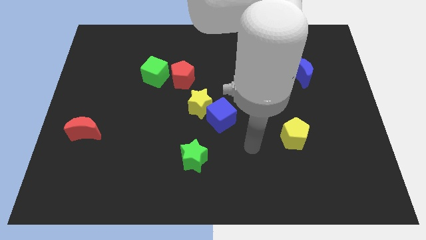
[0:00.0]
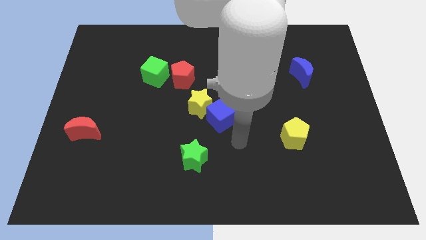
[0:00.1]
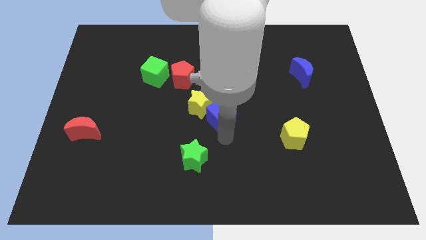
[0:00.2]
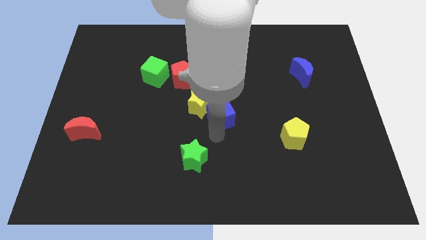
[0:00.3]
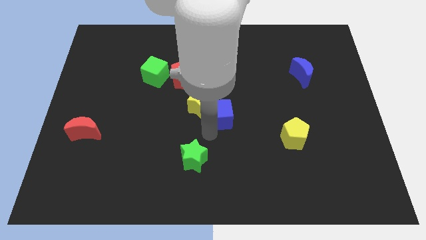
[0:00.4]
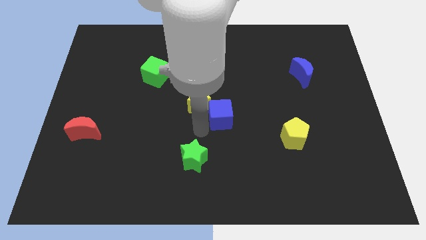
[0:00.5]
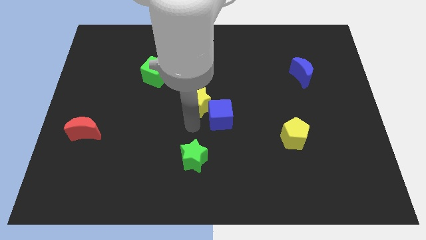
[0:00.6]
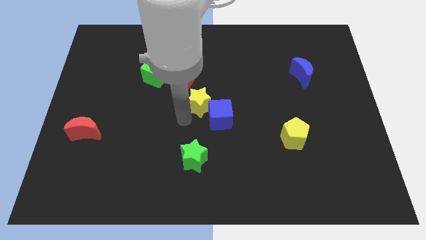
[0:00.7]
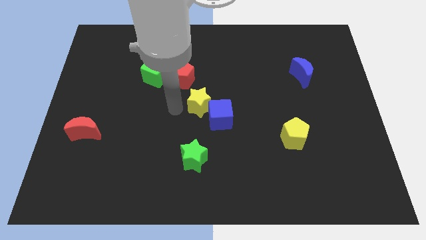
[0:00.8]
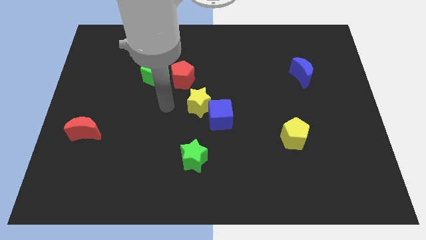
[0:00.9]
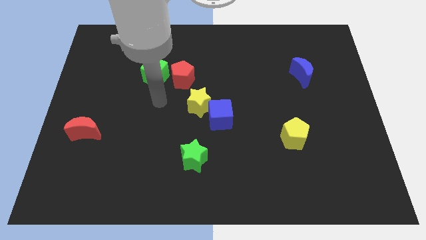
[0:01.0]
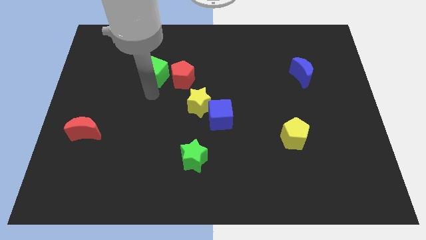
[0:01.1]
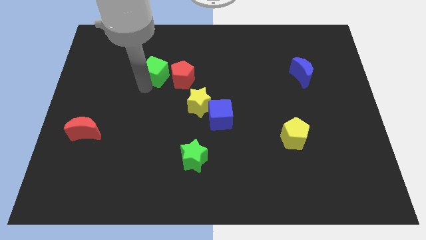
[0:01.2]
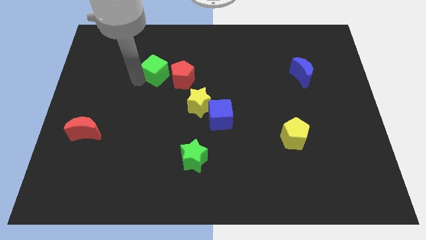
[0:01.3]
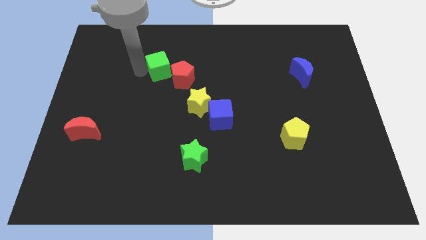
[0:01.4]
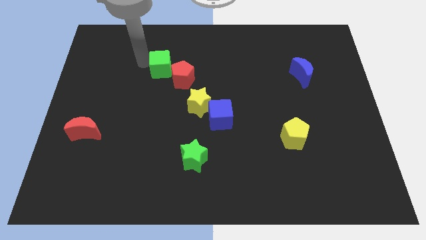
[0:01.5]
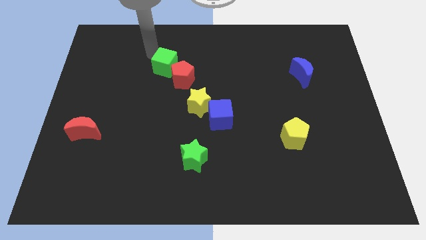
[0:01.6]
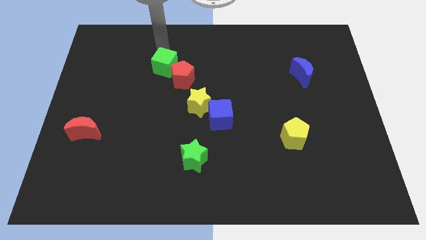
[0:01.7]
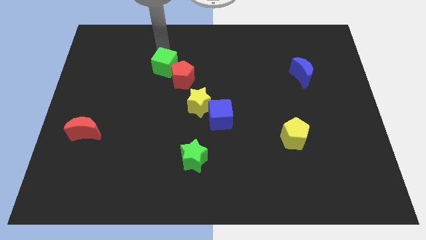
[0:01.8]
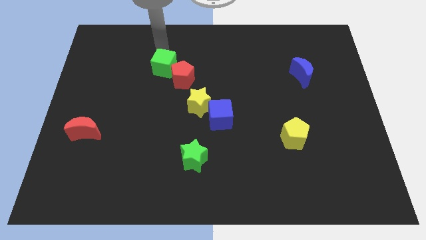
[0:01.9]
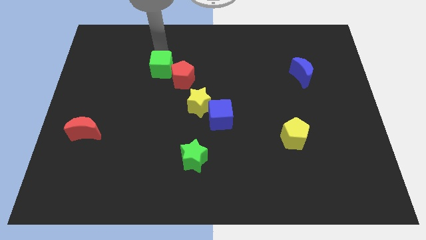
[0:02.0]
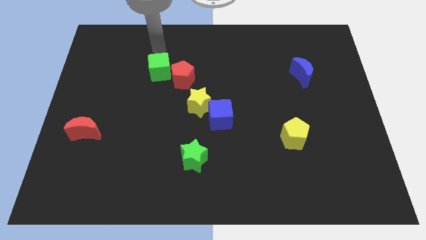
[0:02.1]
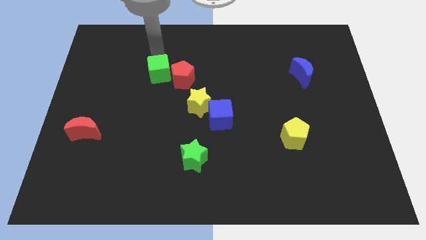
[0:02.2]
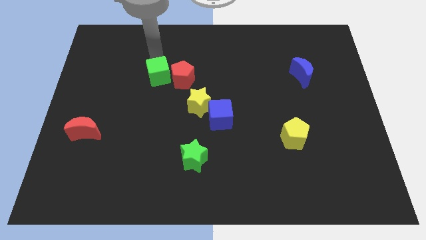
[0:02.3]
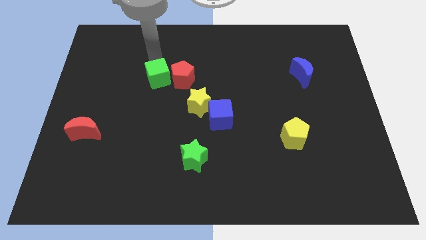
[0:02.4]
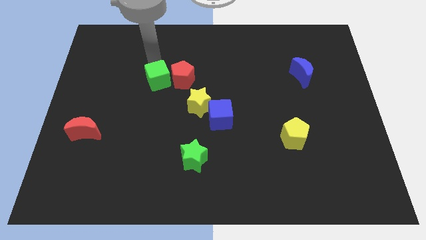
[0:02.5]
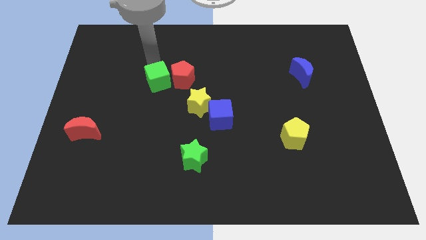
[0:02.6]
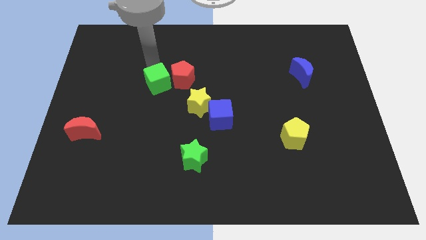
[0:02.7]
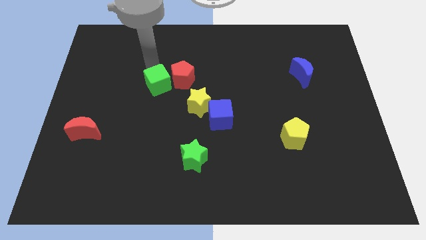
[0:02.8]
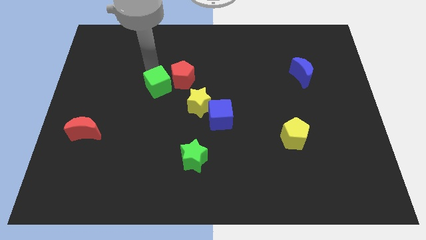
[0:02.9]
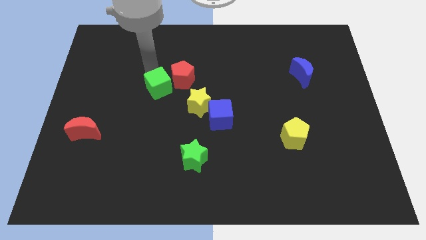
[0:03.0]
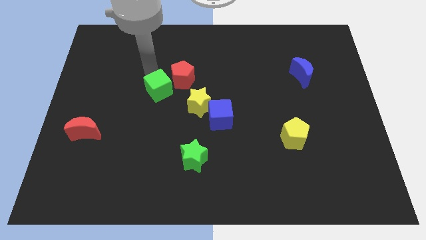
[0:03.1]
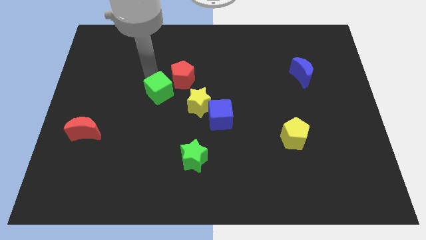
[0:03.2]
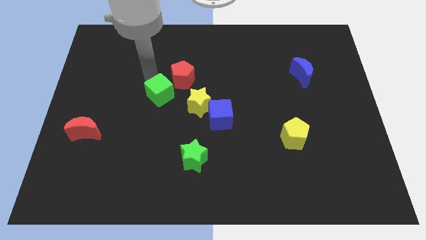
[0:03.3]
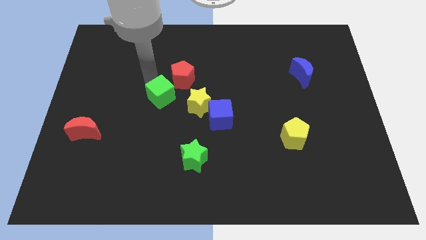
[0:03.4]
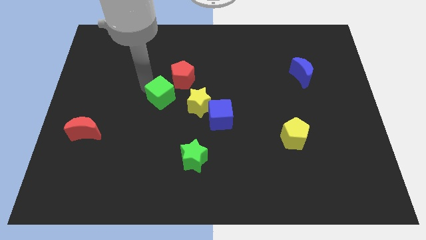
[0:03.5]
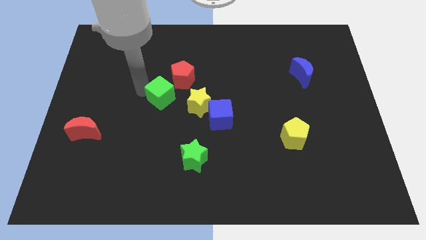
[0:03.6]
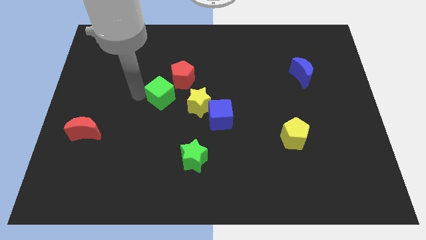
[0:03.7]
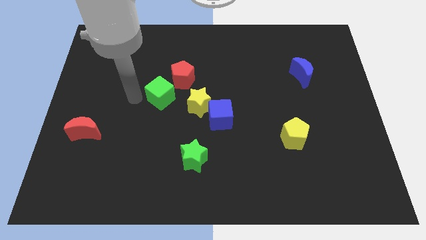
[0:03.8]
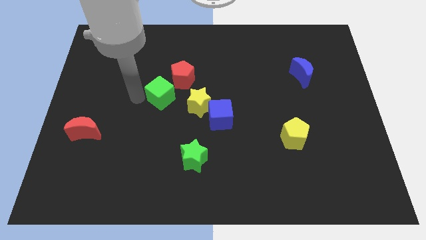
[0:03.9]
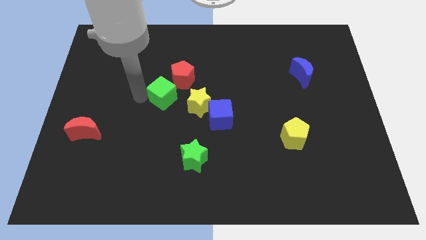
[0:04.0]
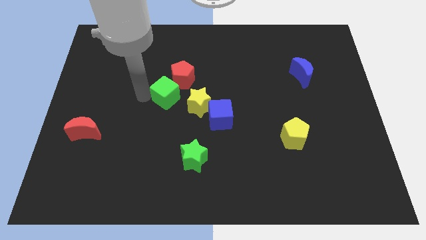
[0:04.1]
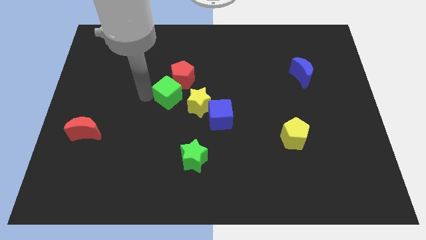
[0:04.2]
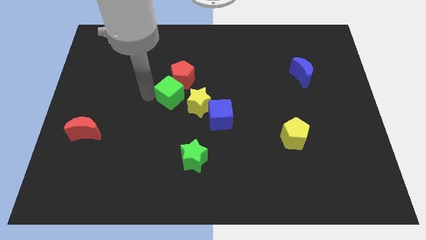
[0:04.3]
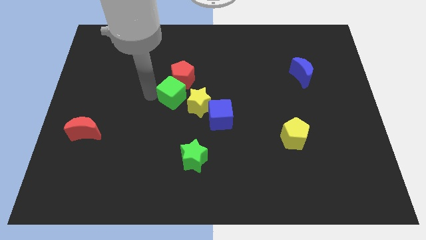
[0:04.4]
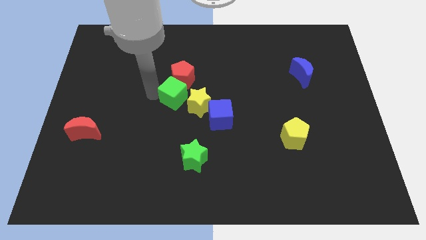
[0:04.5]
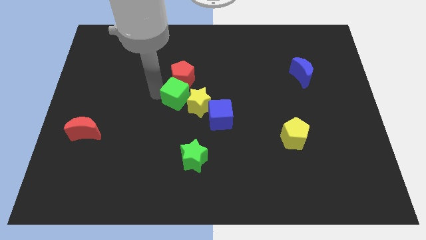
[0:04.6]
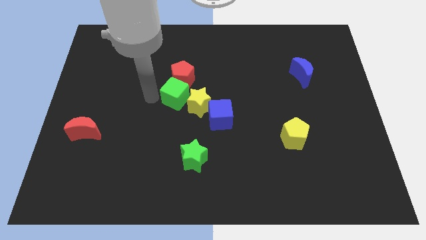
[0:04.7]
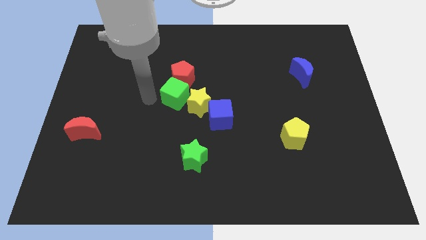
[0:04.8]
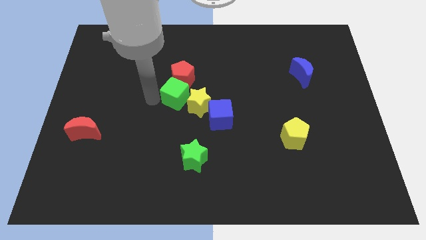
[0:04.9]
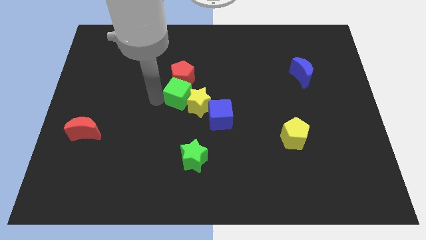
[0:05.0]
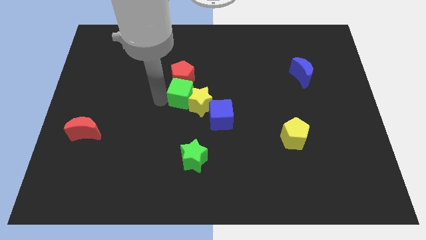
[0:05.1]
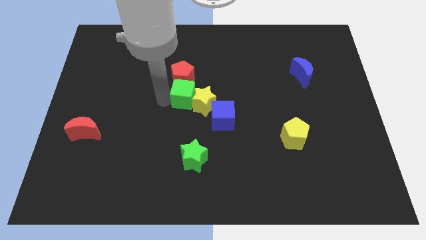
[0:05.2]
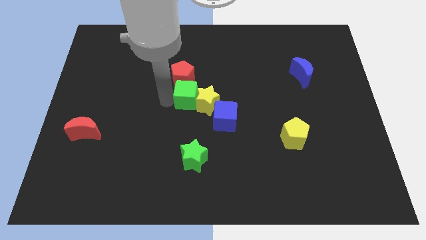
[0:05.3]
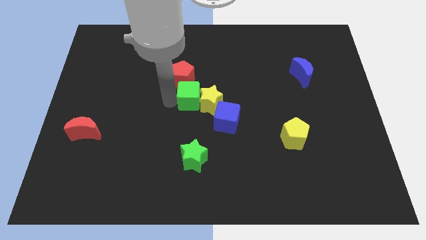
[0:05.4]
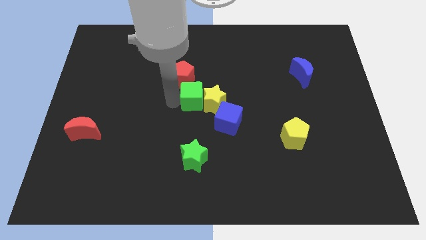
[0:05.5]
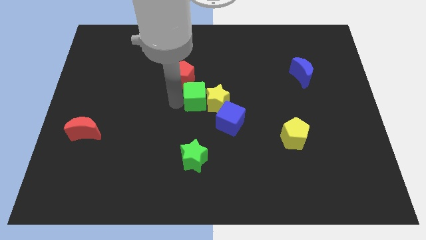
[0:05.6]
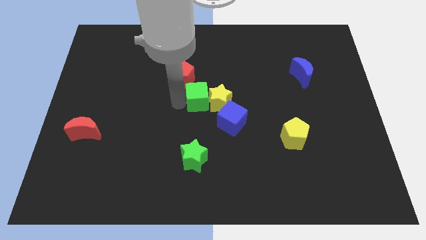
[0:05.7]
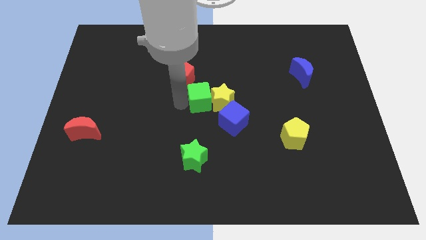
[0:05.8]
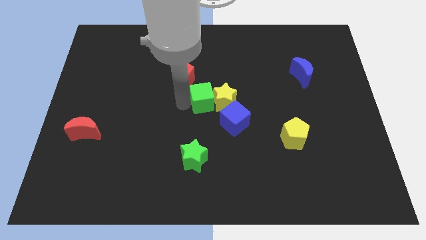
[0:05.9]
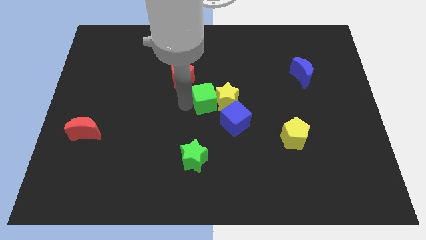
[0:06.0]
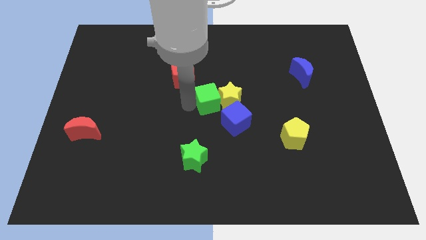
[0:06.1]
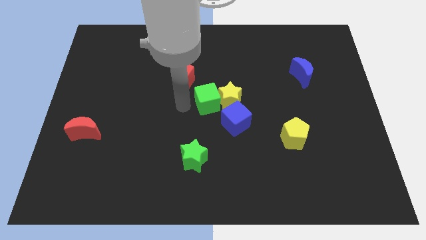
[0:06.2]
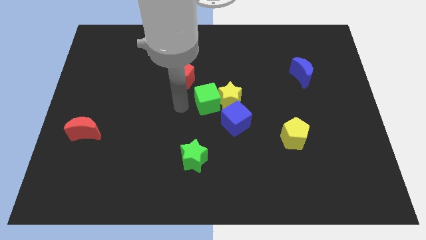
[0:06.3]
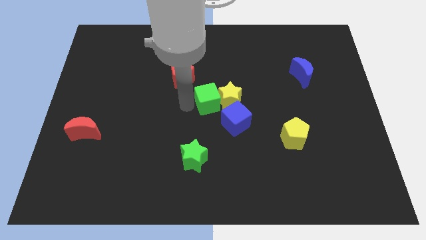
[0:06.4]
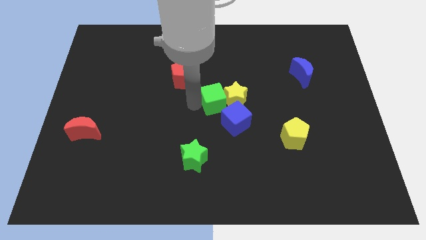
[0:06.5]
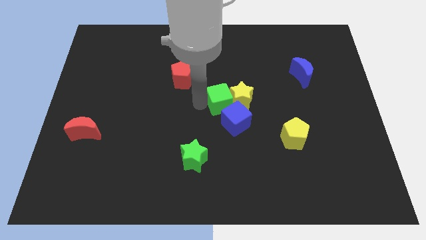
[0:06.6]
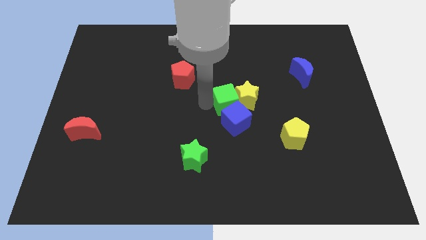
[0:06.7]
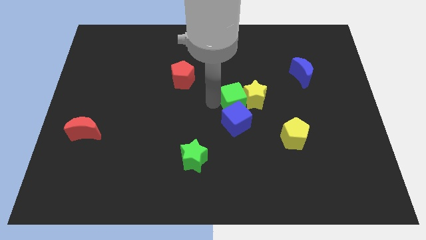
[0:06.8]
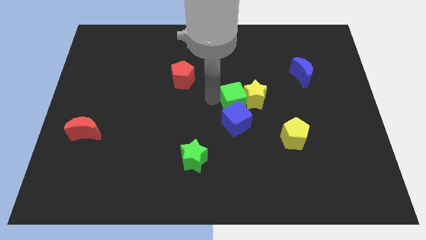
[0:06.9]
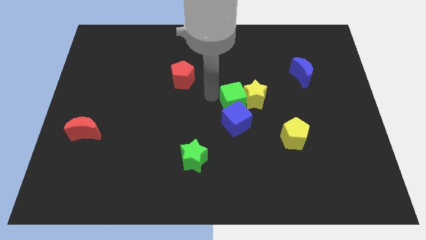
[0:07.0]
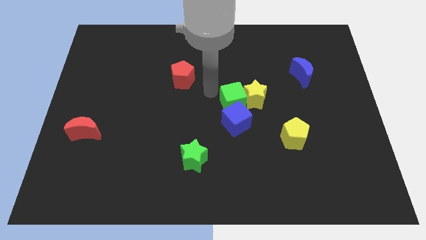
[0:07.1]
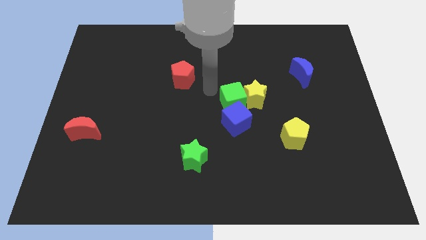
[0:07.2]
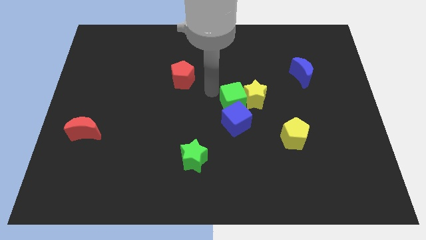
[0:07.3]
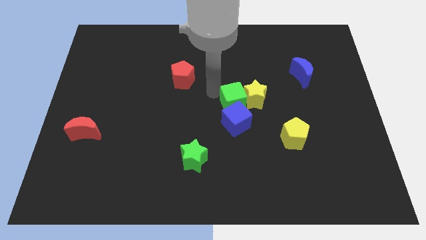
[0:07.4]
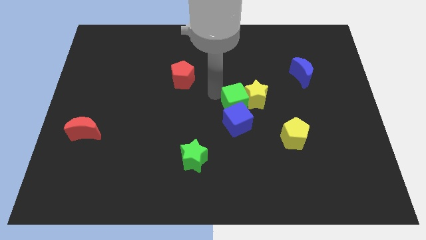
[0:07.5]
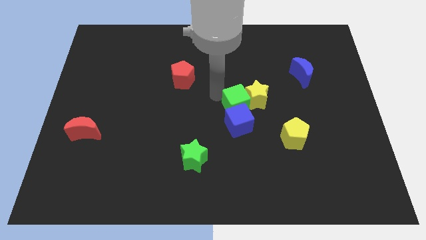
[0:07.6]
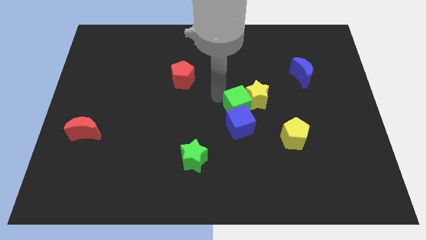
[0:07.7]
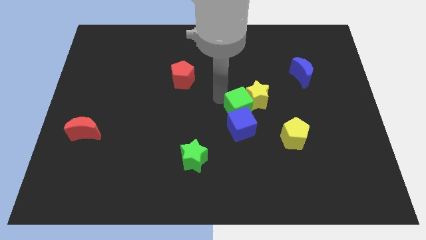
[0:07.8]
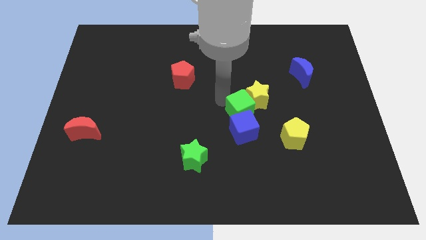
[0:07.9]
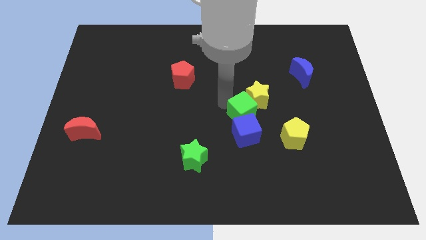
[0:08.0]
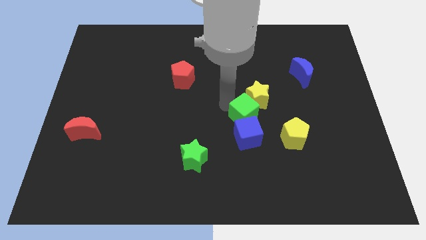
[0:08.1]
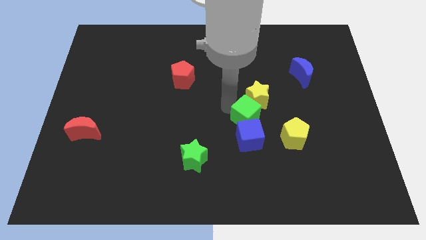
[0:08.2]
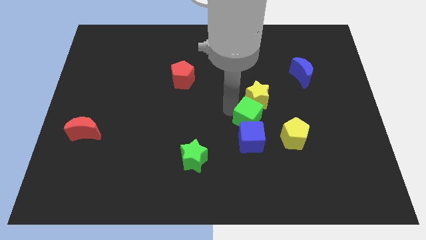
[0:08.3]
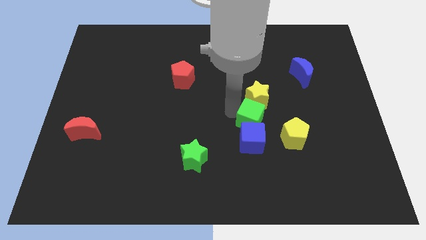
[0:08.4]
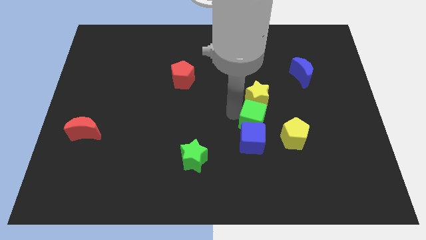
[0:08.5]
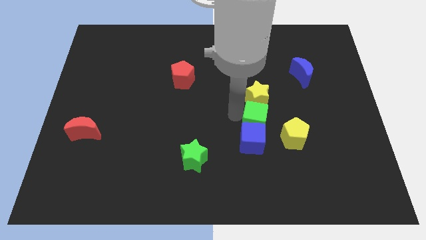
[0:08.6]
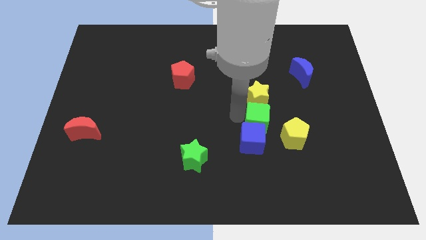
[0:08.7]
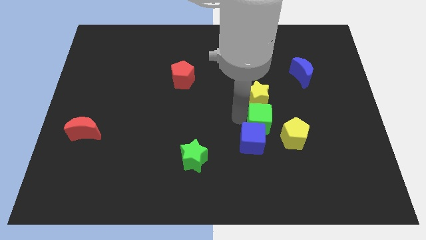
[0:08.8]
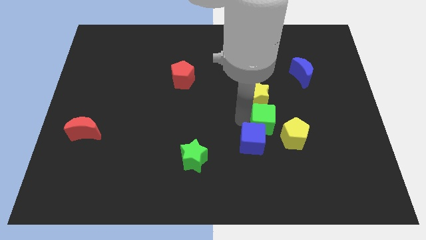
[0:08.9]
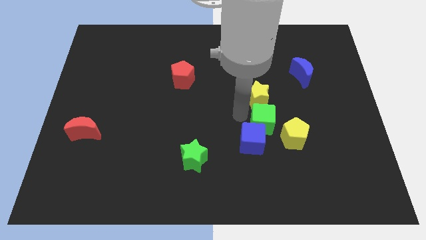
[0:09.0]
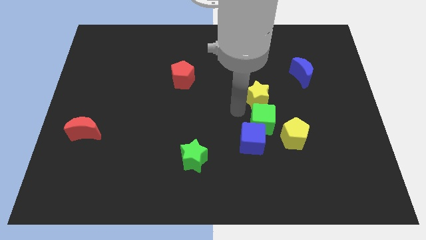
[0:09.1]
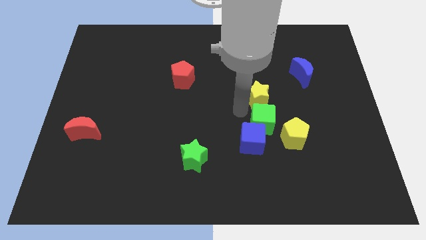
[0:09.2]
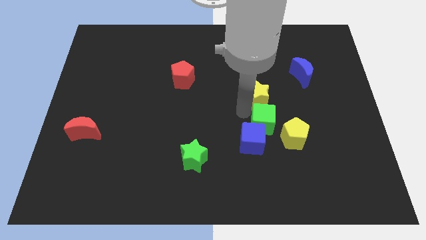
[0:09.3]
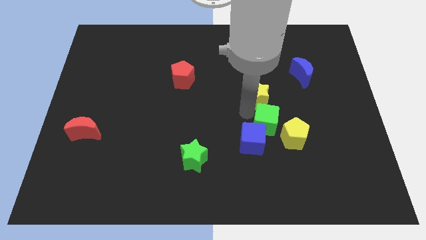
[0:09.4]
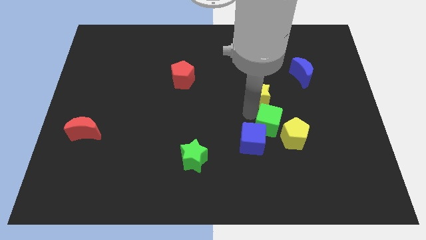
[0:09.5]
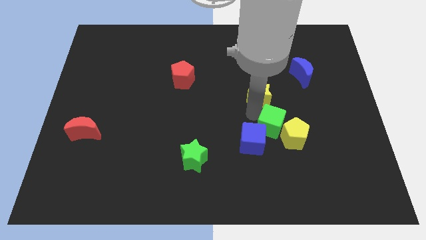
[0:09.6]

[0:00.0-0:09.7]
move the green cube towards the yellow pentagon
